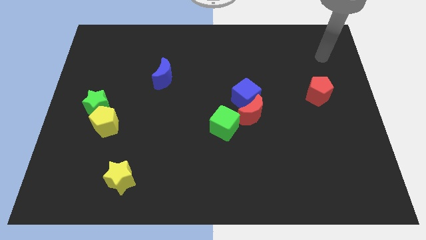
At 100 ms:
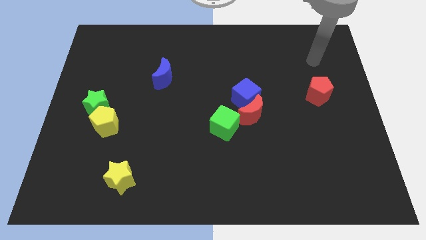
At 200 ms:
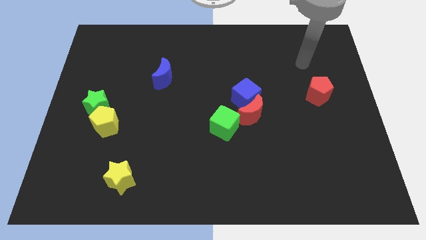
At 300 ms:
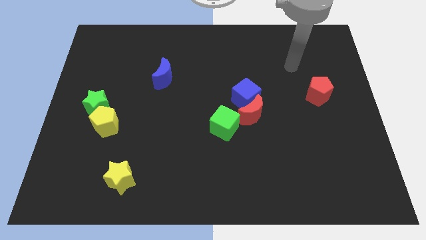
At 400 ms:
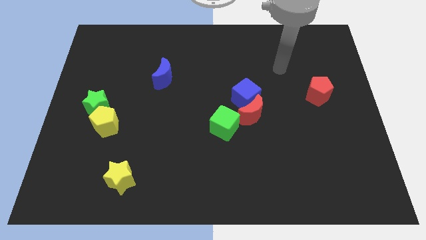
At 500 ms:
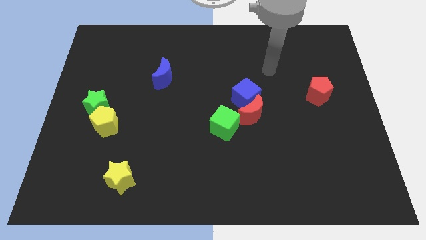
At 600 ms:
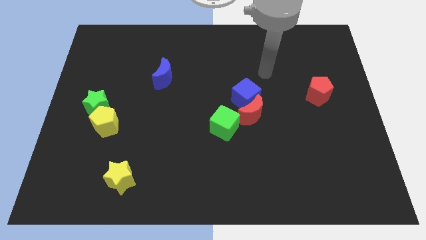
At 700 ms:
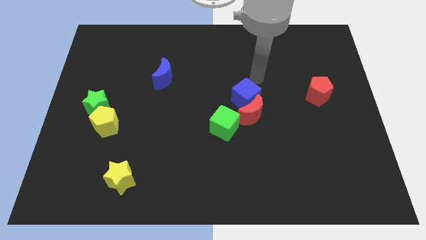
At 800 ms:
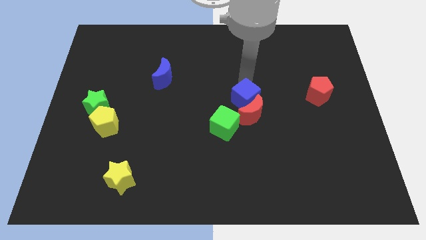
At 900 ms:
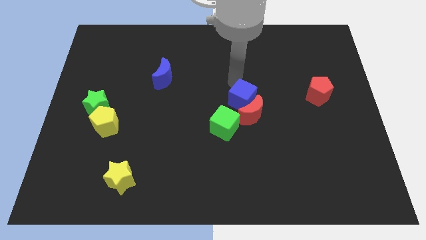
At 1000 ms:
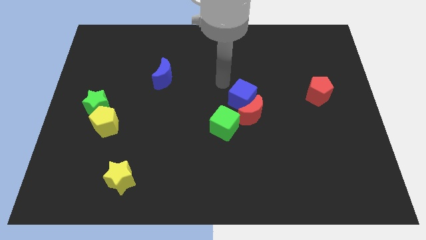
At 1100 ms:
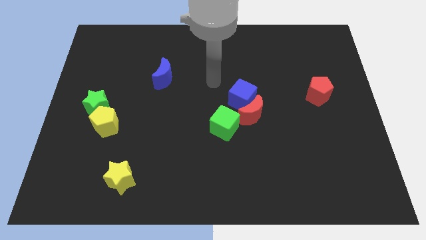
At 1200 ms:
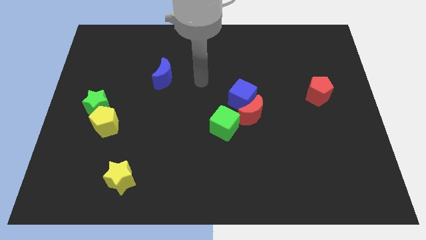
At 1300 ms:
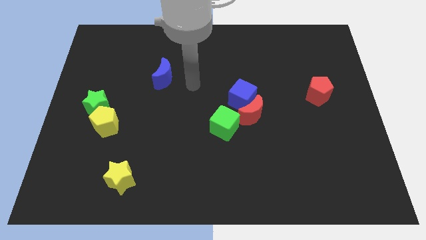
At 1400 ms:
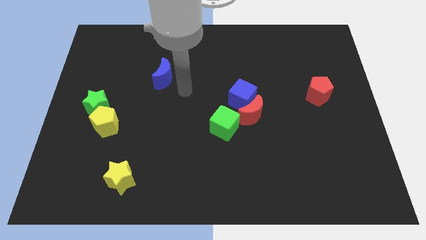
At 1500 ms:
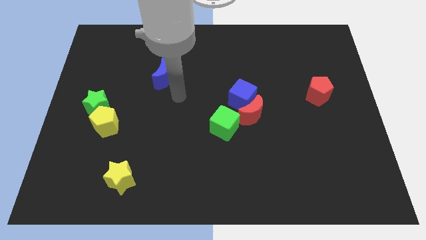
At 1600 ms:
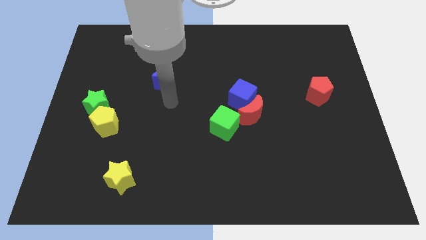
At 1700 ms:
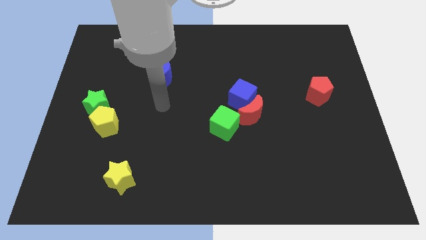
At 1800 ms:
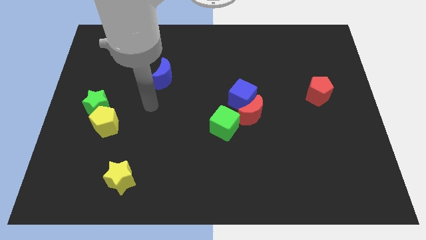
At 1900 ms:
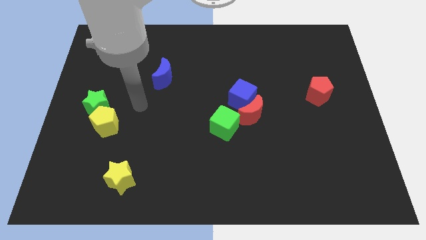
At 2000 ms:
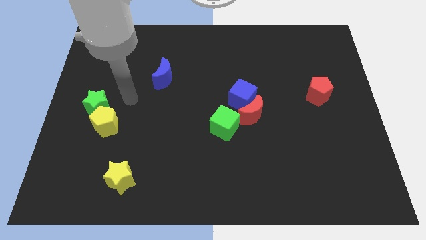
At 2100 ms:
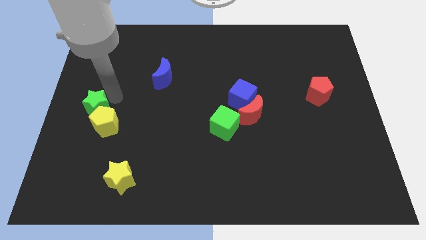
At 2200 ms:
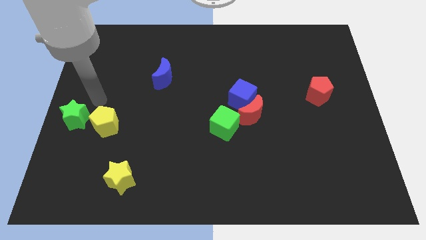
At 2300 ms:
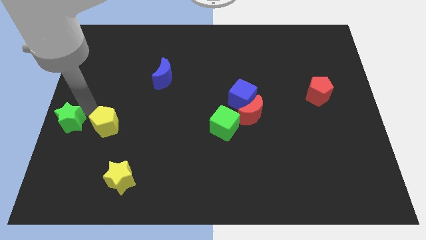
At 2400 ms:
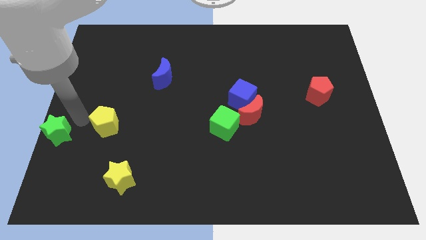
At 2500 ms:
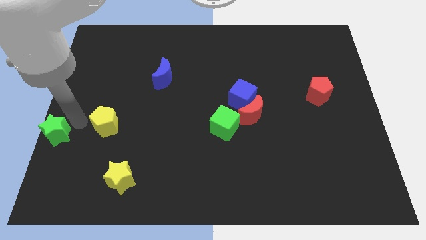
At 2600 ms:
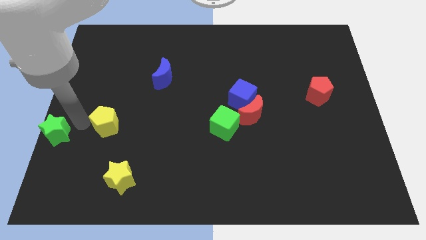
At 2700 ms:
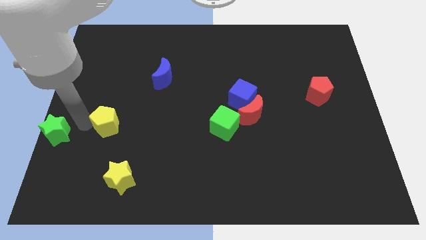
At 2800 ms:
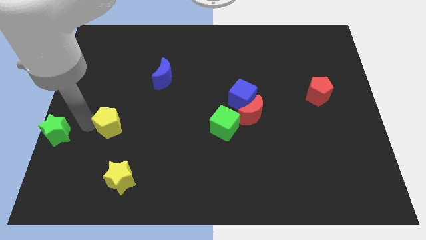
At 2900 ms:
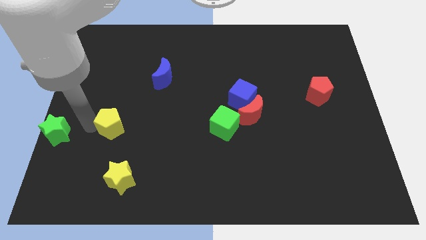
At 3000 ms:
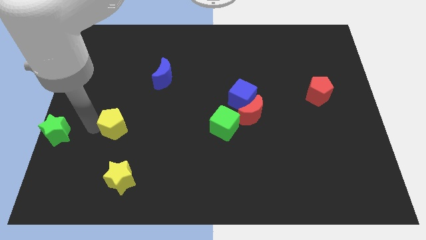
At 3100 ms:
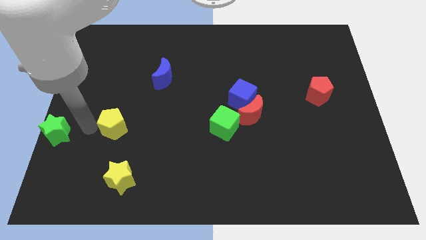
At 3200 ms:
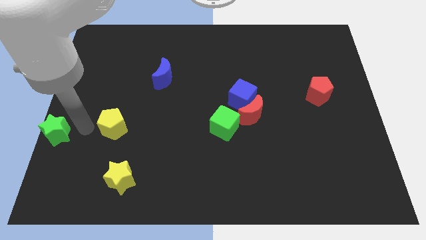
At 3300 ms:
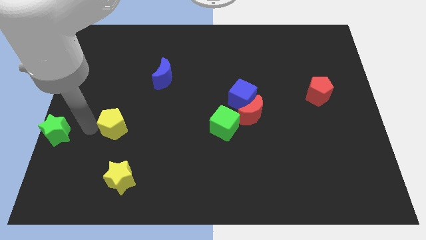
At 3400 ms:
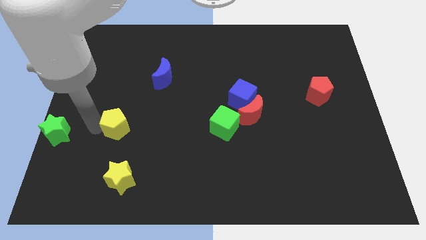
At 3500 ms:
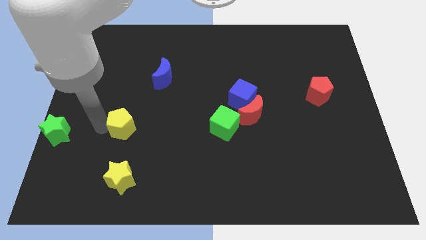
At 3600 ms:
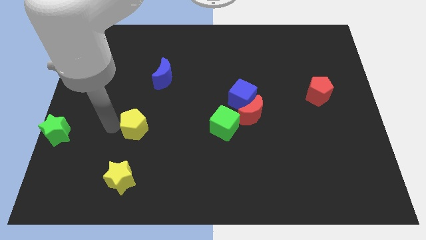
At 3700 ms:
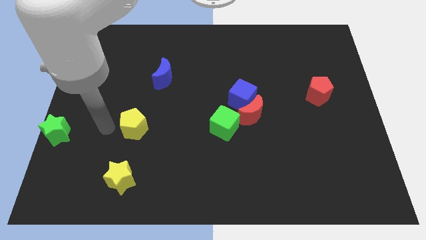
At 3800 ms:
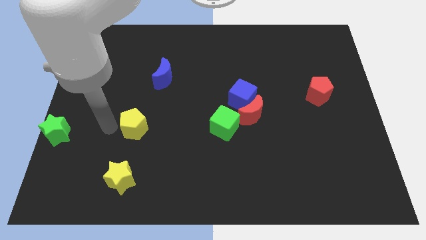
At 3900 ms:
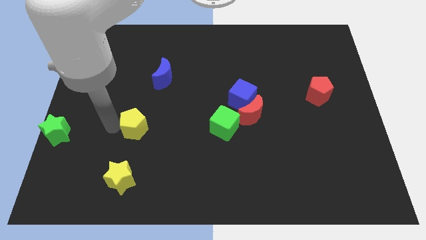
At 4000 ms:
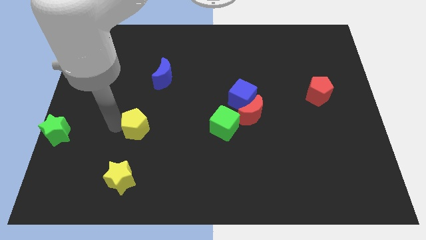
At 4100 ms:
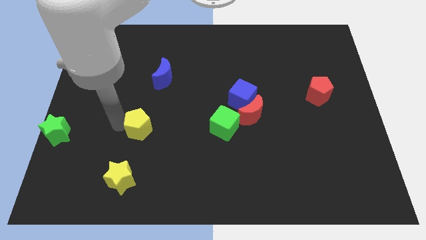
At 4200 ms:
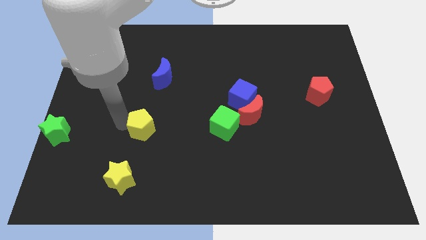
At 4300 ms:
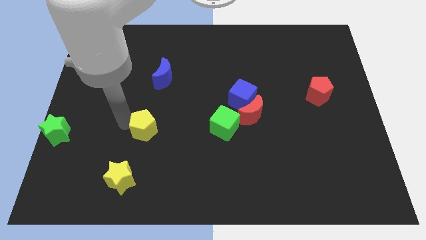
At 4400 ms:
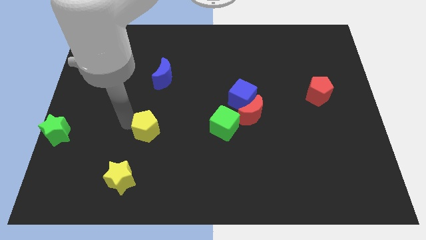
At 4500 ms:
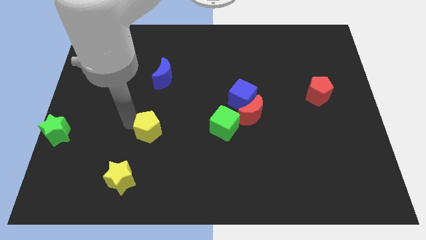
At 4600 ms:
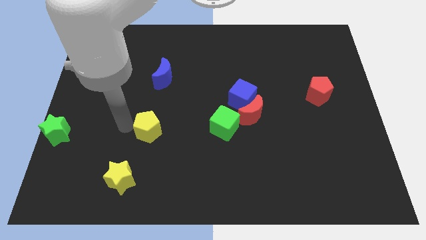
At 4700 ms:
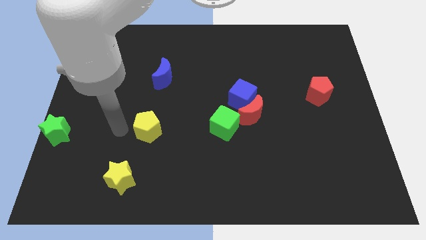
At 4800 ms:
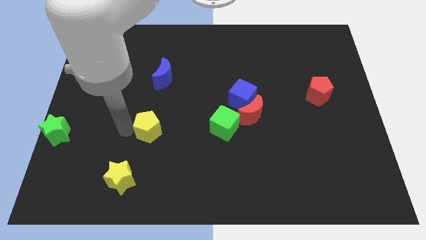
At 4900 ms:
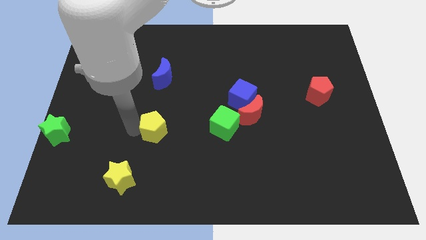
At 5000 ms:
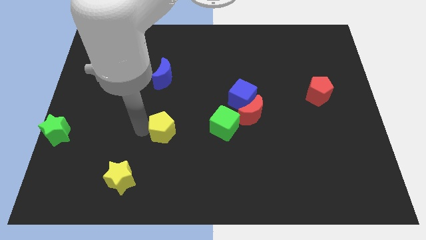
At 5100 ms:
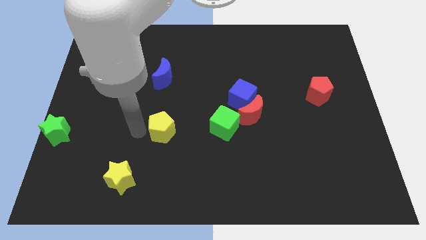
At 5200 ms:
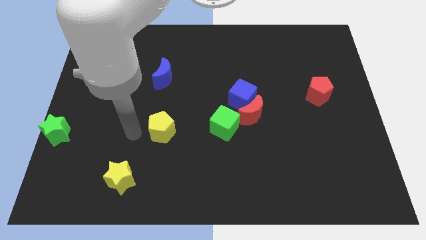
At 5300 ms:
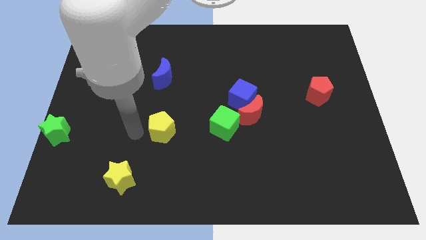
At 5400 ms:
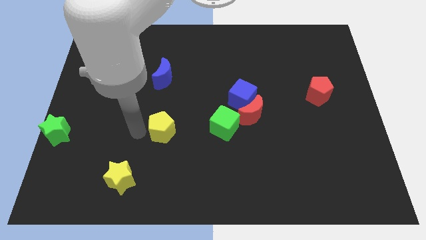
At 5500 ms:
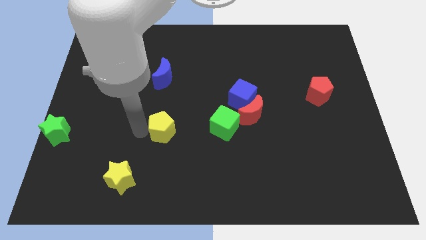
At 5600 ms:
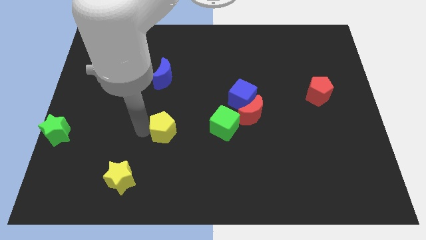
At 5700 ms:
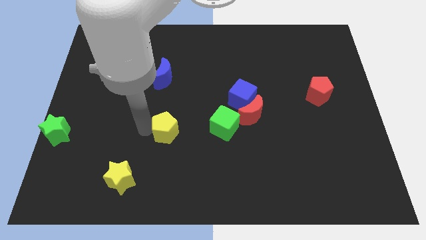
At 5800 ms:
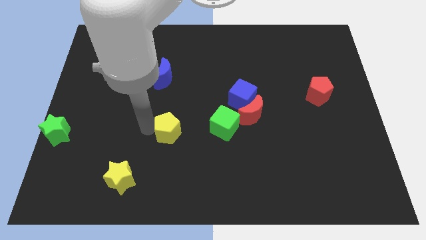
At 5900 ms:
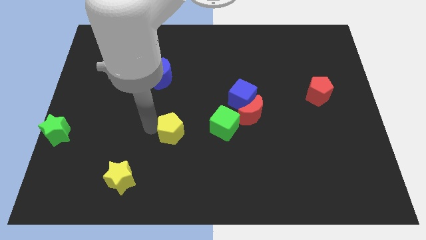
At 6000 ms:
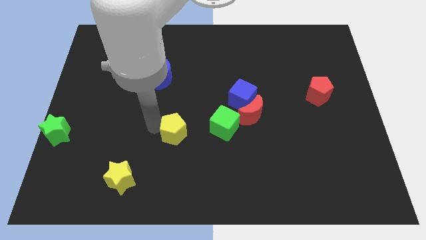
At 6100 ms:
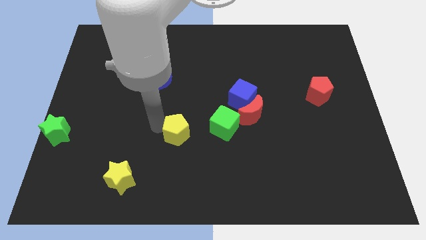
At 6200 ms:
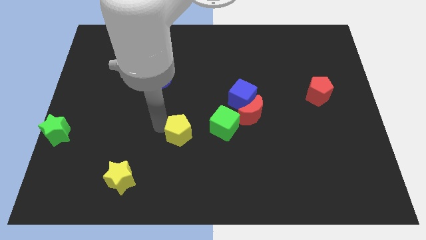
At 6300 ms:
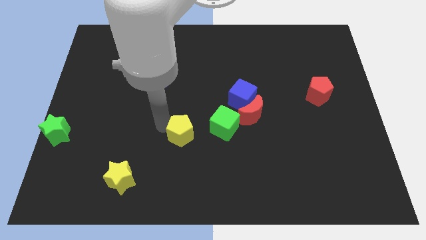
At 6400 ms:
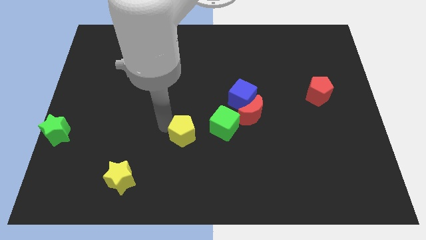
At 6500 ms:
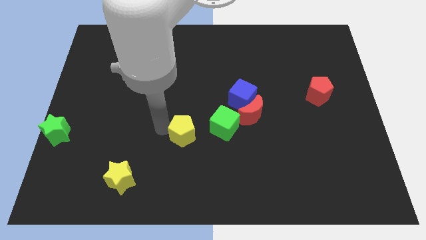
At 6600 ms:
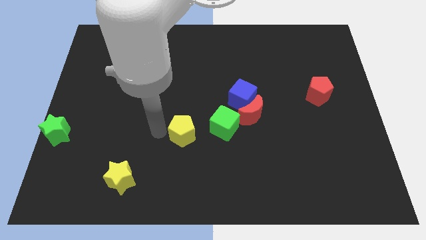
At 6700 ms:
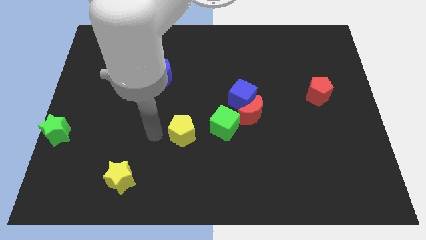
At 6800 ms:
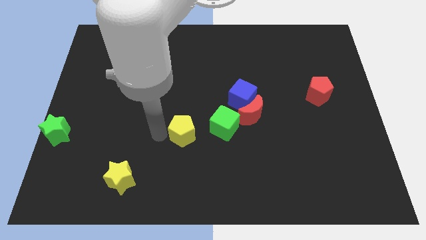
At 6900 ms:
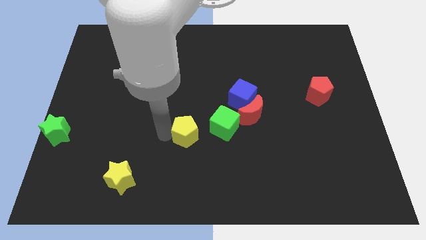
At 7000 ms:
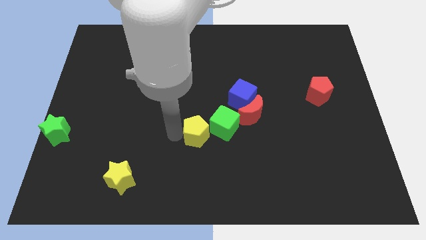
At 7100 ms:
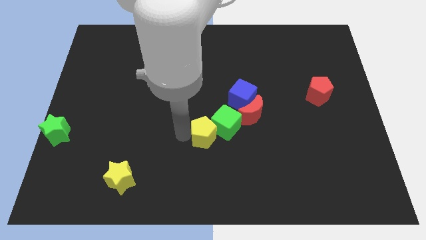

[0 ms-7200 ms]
move the yellow pentagon to the green cube
